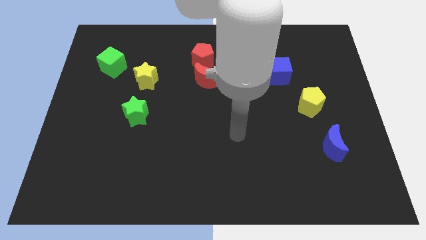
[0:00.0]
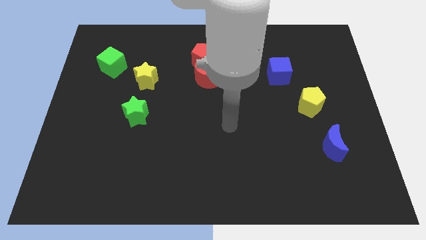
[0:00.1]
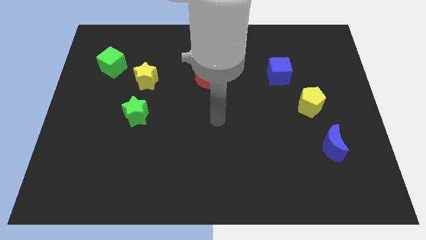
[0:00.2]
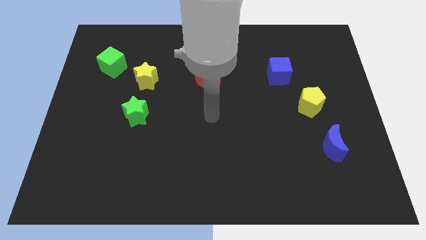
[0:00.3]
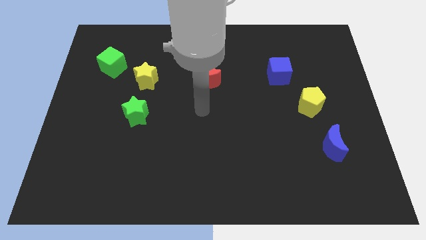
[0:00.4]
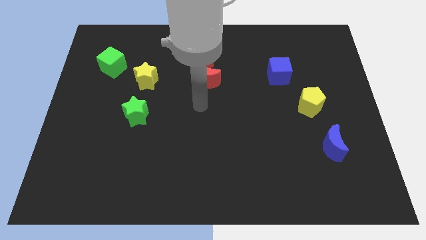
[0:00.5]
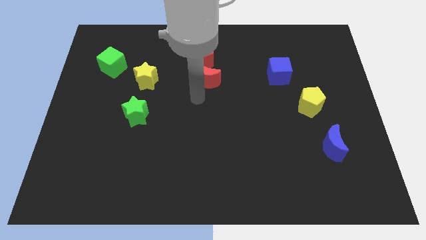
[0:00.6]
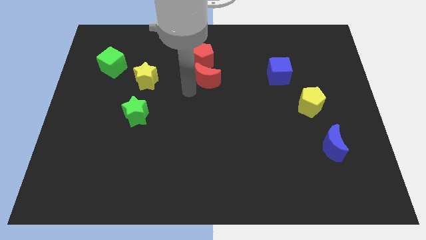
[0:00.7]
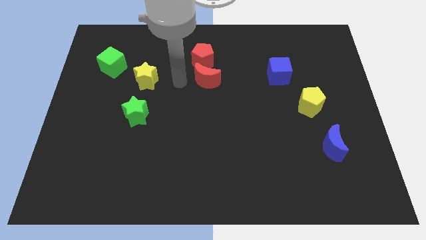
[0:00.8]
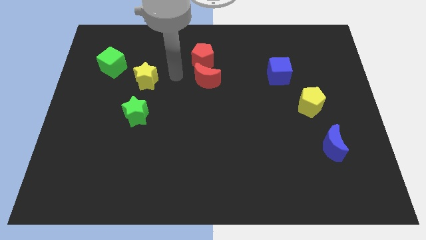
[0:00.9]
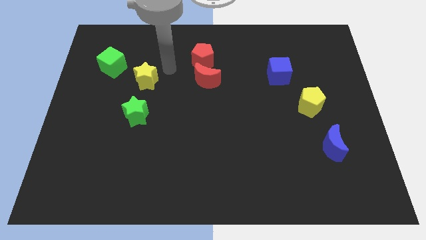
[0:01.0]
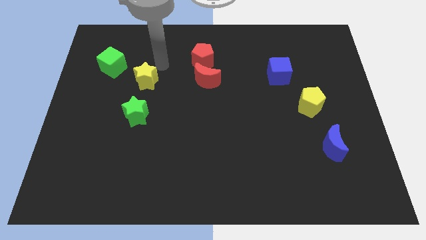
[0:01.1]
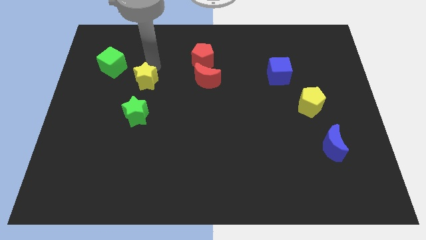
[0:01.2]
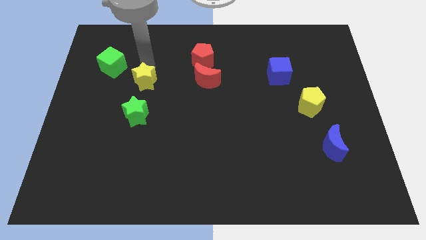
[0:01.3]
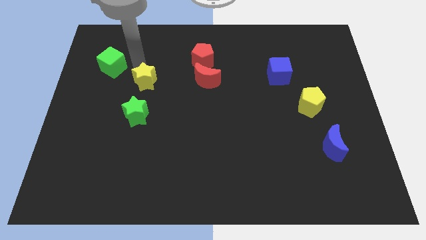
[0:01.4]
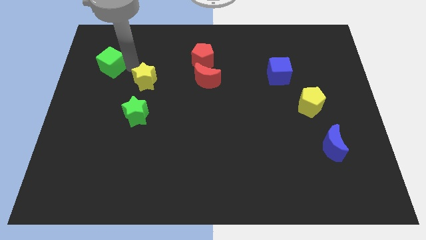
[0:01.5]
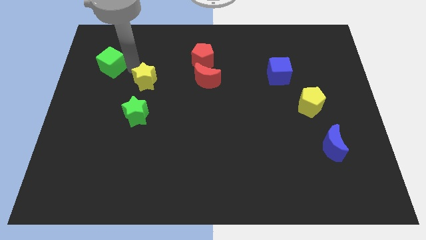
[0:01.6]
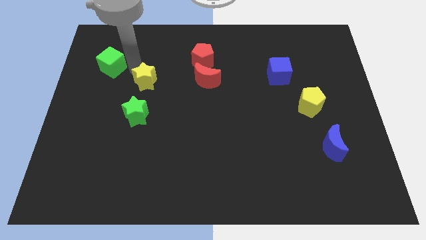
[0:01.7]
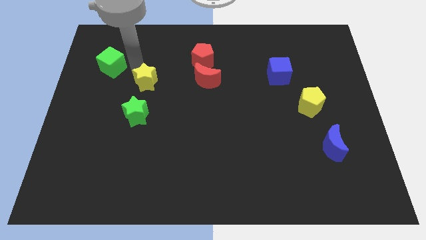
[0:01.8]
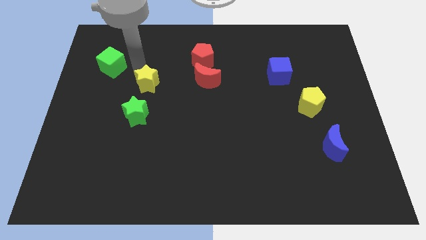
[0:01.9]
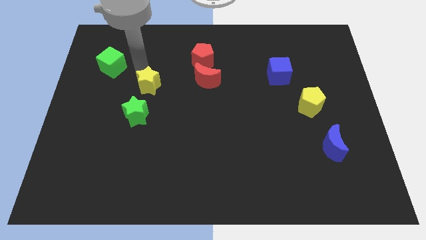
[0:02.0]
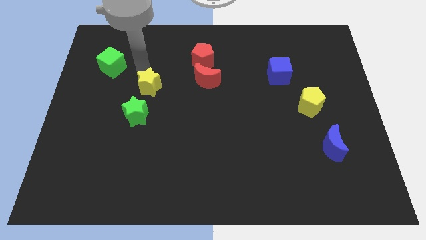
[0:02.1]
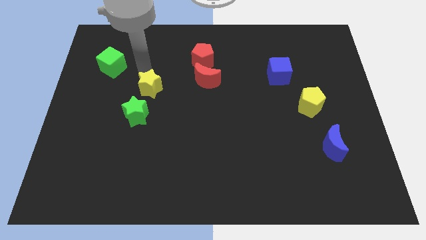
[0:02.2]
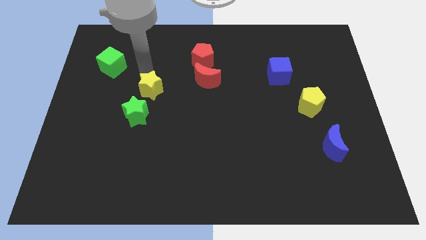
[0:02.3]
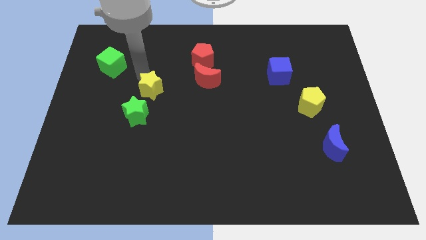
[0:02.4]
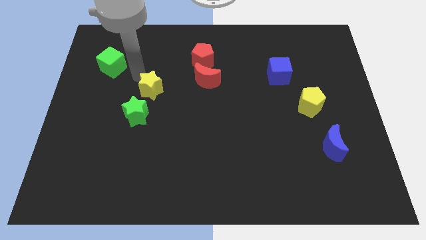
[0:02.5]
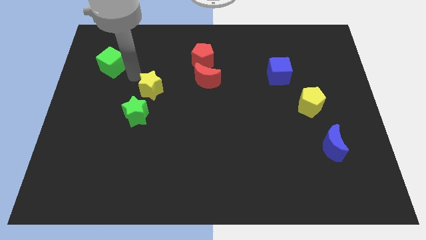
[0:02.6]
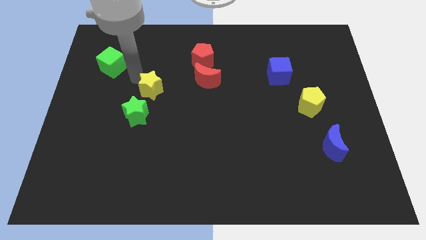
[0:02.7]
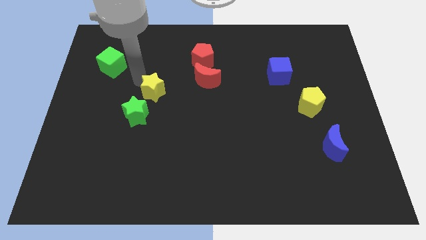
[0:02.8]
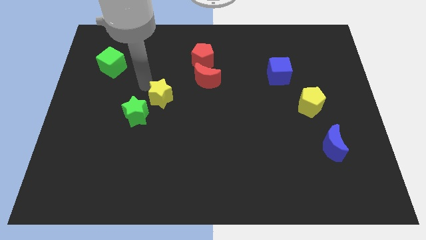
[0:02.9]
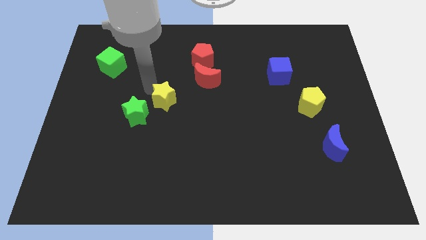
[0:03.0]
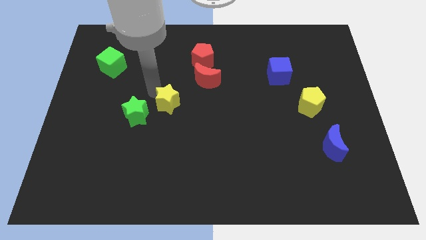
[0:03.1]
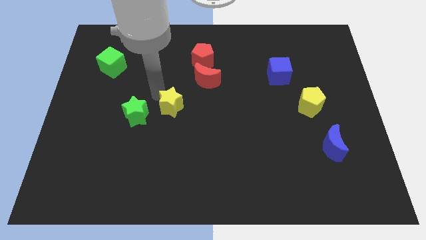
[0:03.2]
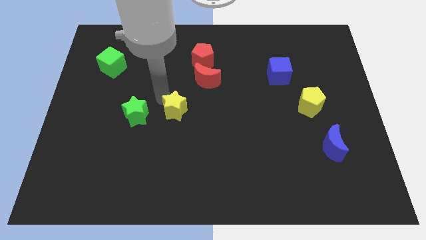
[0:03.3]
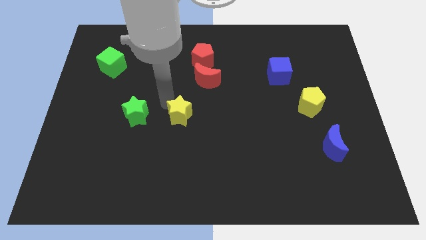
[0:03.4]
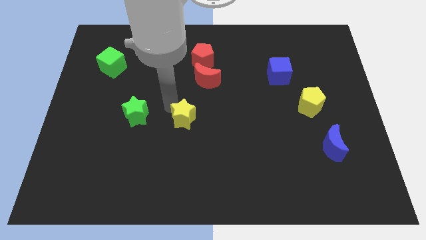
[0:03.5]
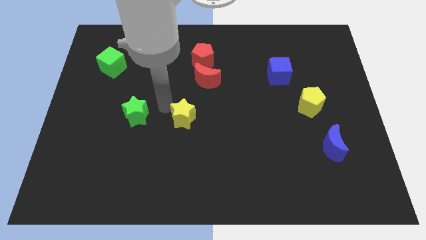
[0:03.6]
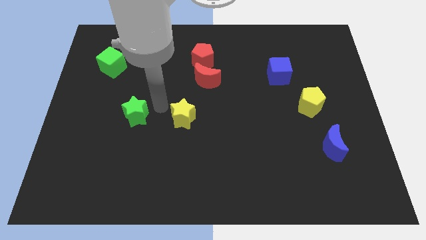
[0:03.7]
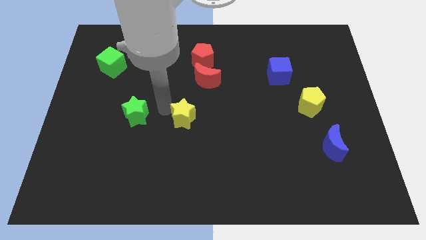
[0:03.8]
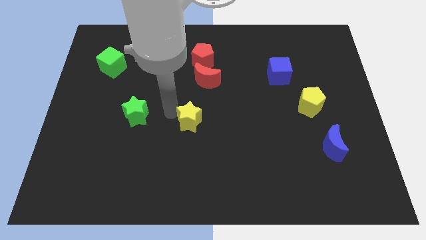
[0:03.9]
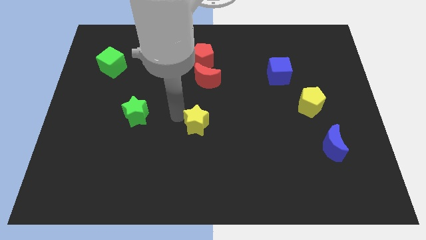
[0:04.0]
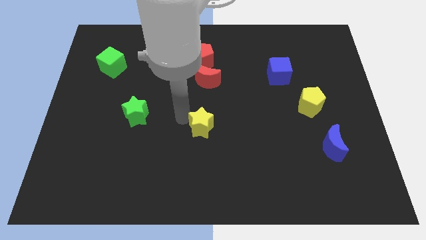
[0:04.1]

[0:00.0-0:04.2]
push the yellow star downwards and then right

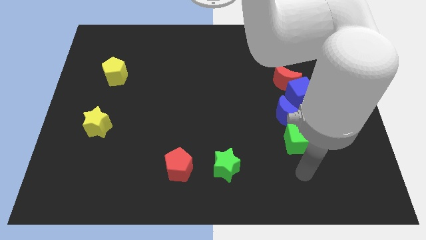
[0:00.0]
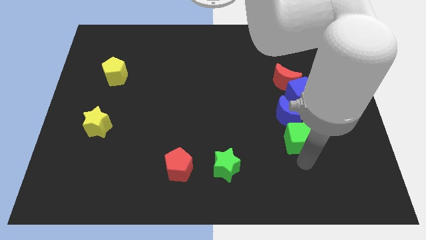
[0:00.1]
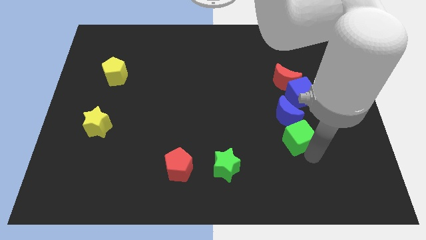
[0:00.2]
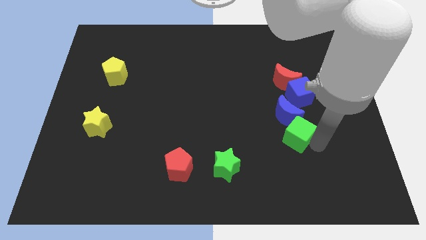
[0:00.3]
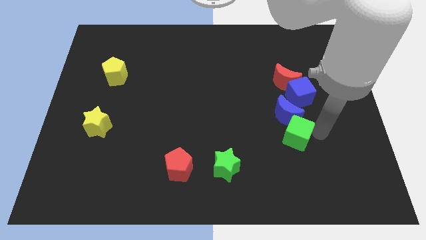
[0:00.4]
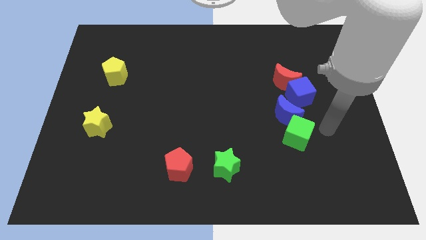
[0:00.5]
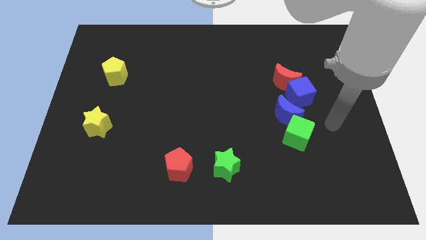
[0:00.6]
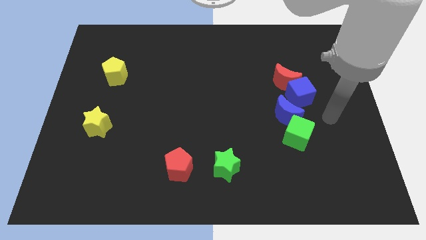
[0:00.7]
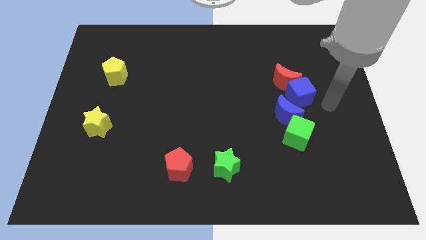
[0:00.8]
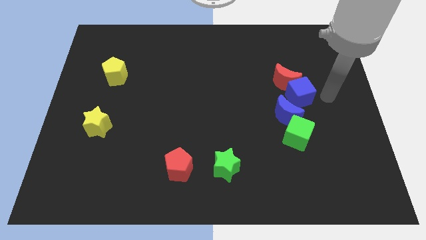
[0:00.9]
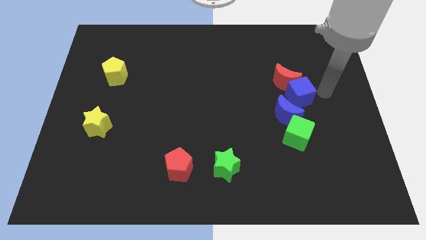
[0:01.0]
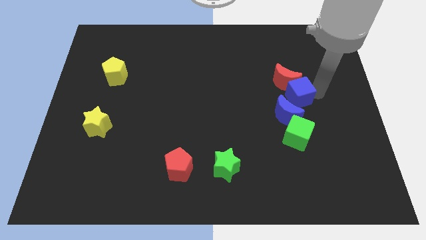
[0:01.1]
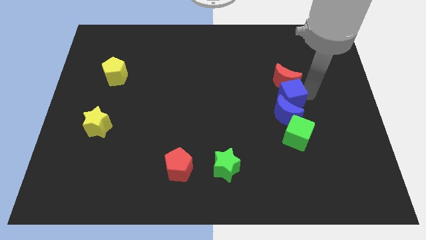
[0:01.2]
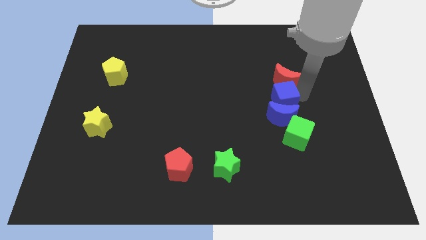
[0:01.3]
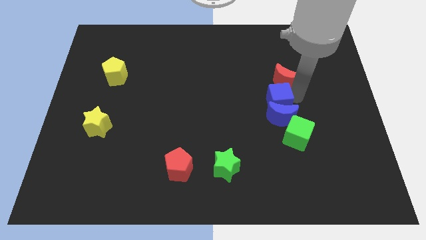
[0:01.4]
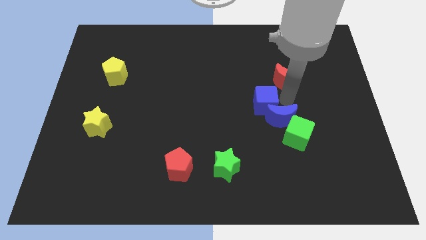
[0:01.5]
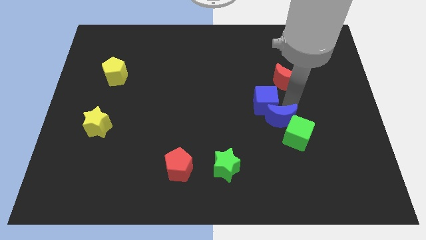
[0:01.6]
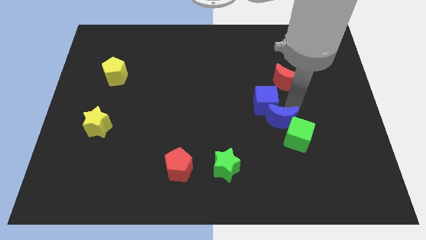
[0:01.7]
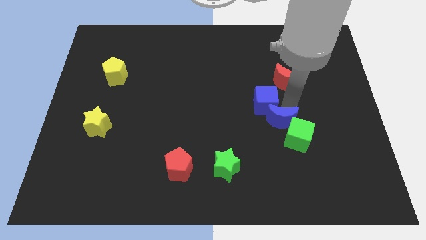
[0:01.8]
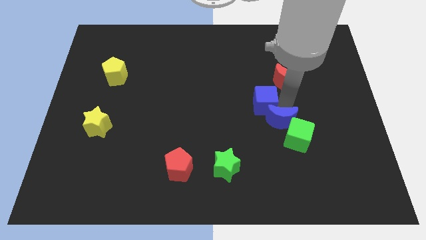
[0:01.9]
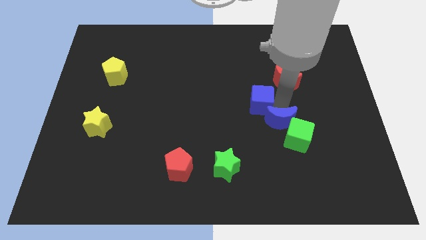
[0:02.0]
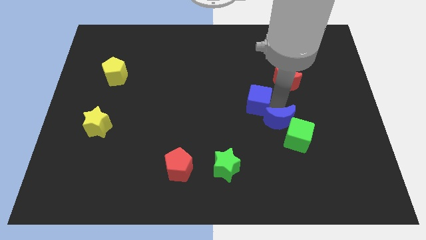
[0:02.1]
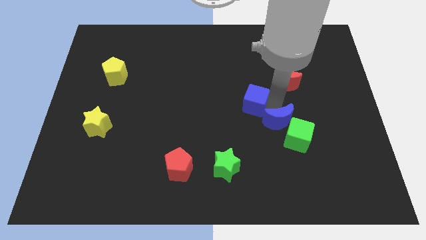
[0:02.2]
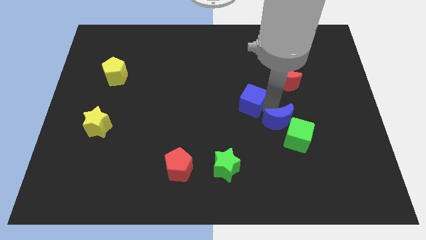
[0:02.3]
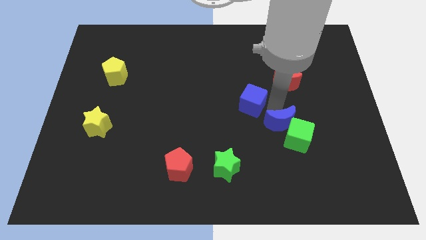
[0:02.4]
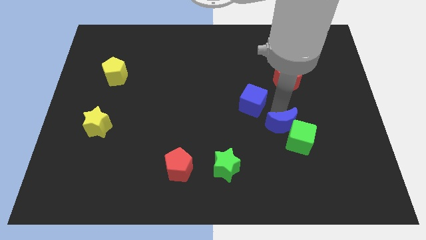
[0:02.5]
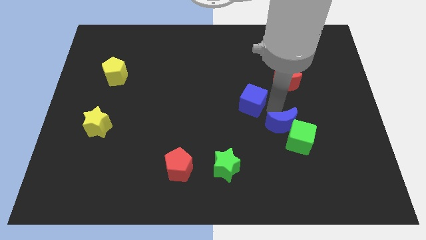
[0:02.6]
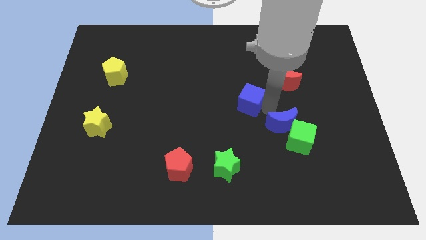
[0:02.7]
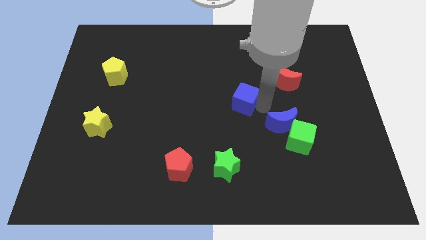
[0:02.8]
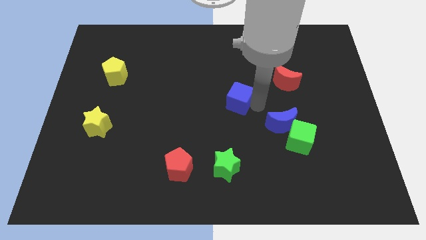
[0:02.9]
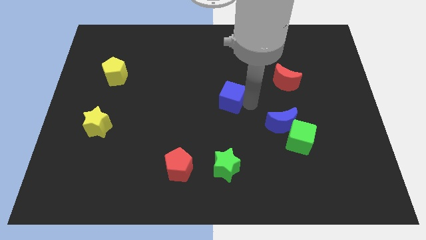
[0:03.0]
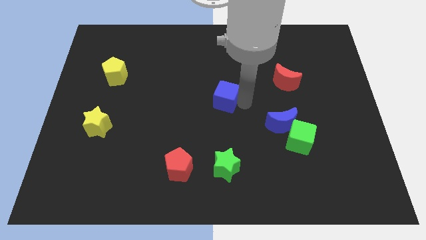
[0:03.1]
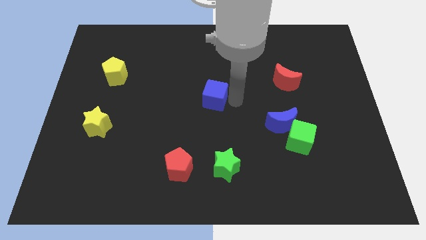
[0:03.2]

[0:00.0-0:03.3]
push the blue cube left
